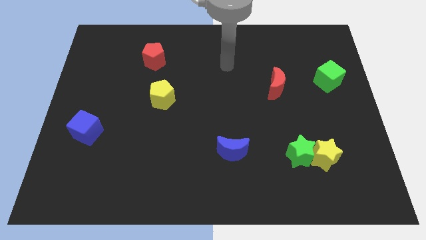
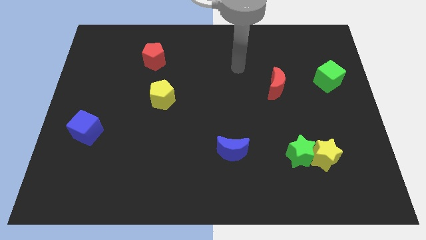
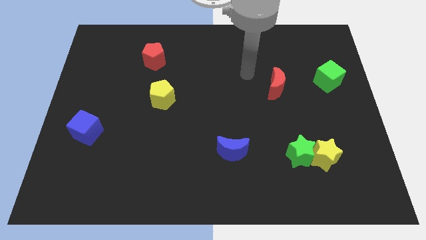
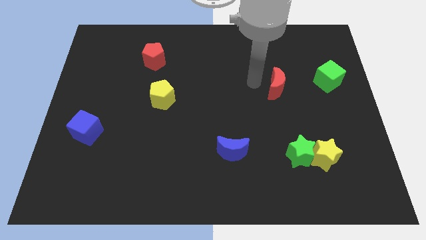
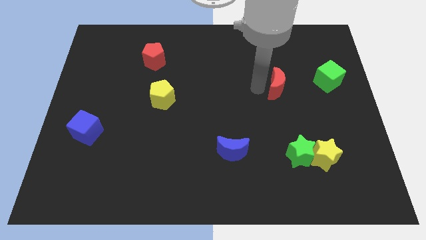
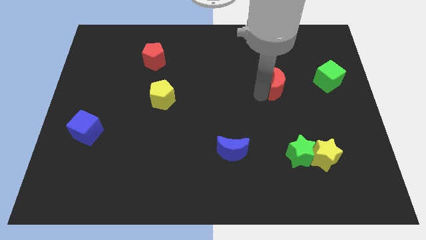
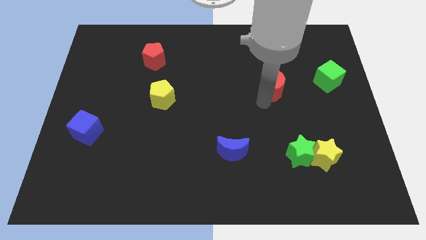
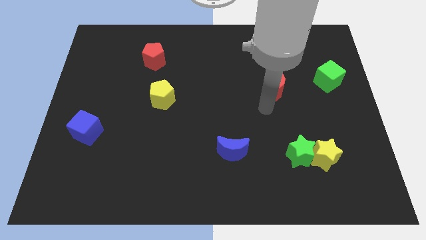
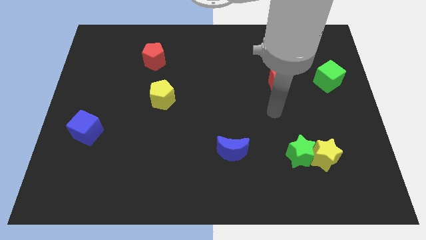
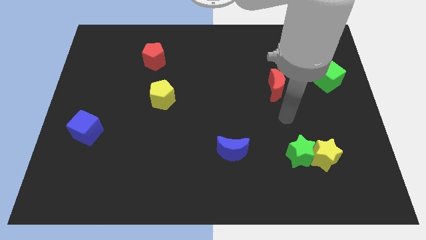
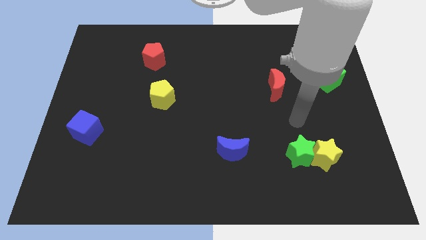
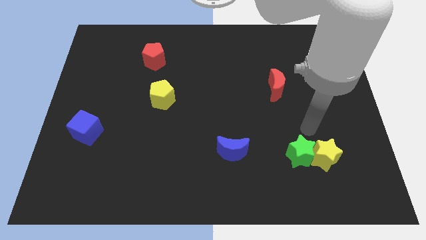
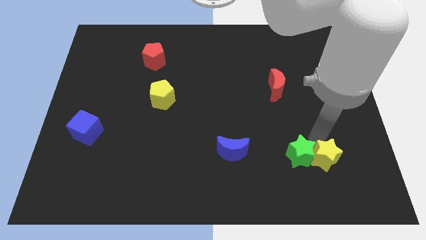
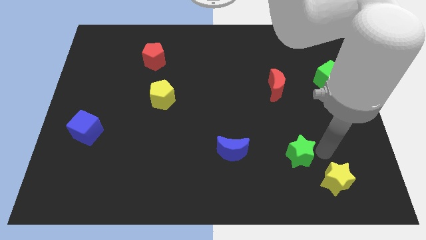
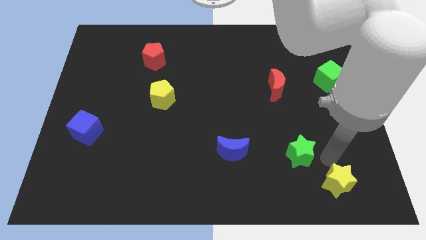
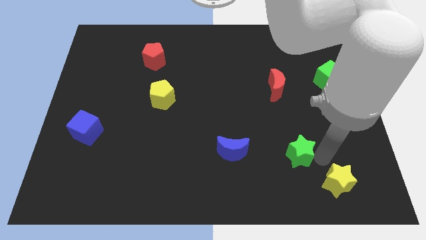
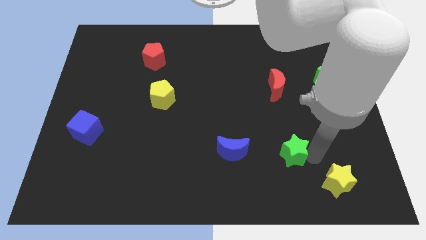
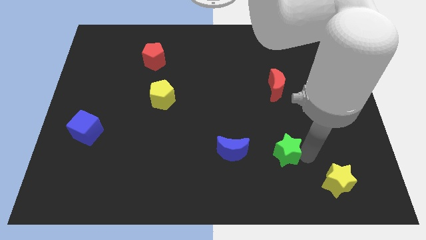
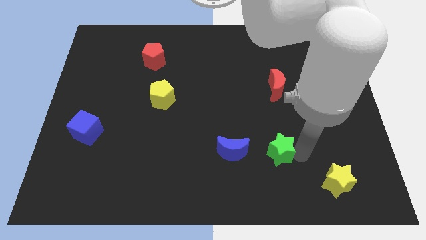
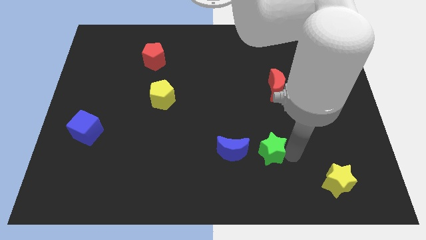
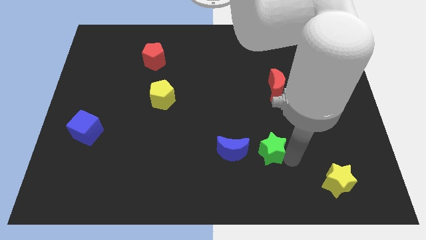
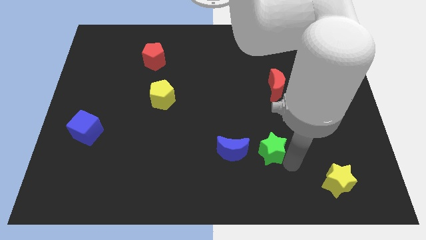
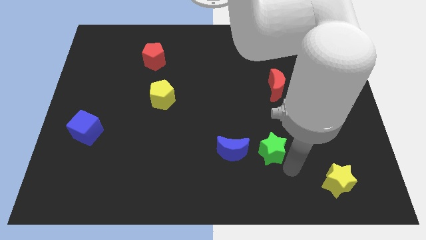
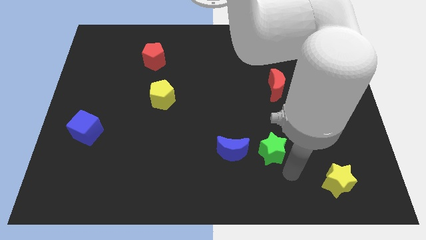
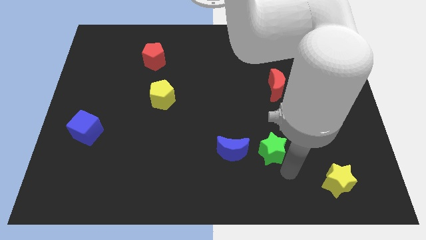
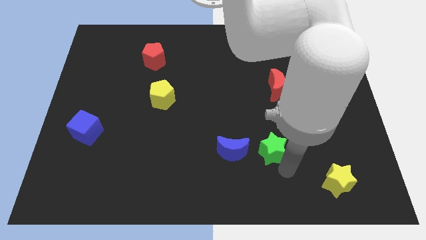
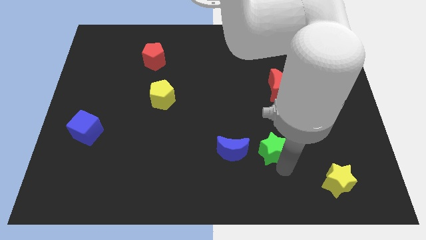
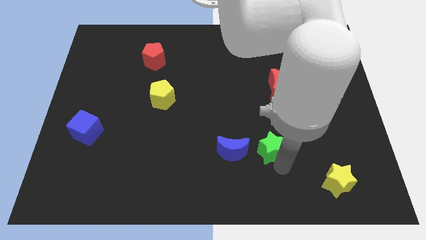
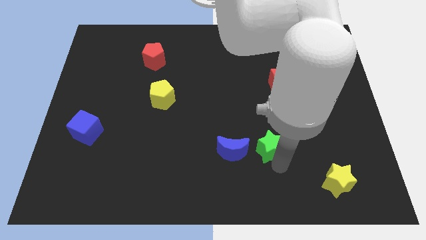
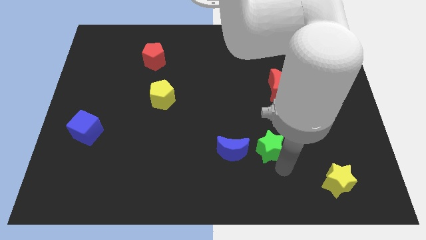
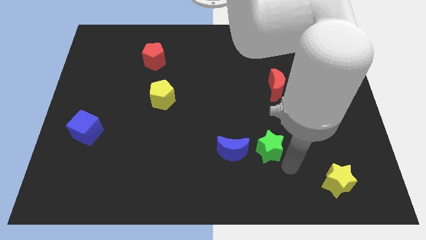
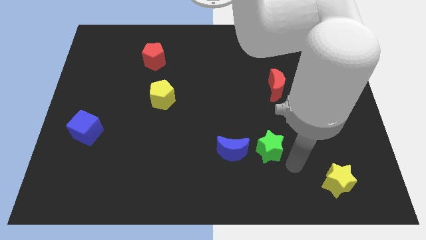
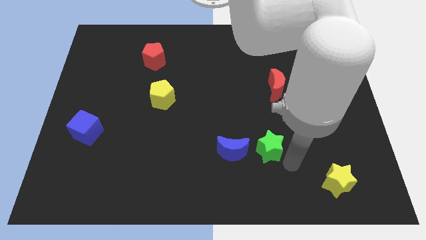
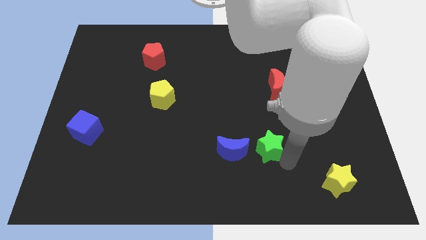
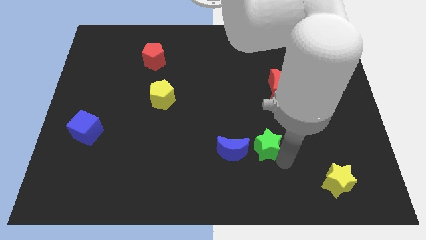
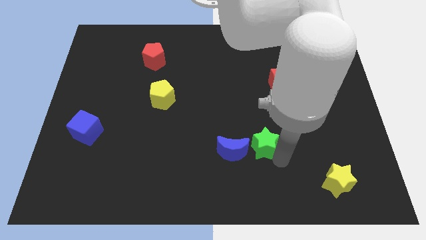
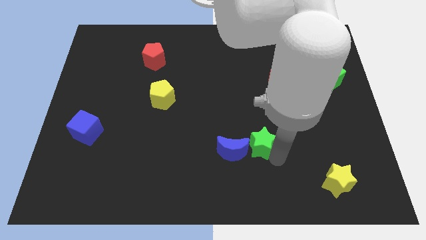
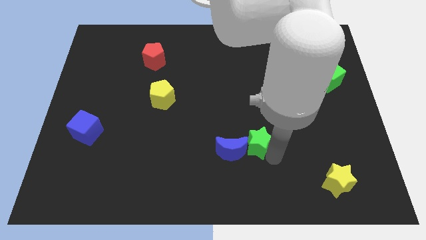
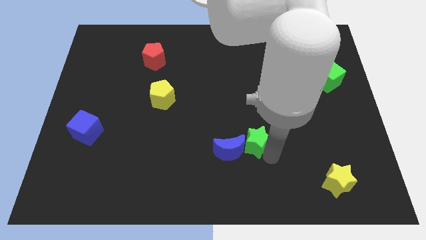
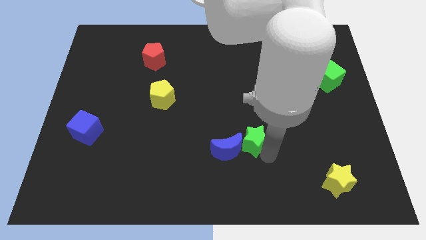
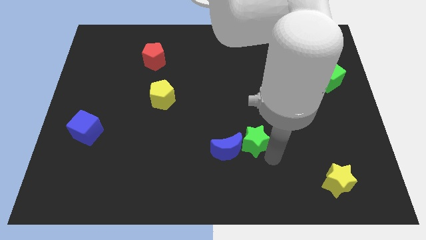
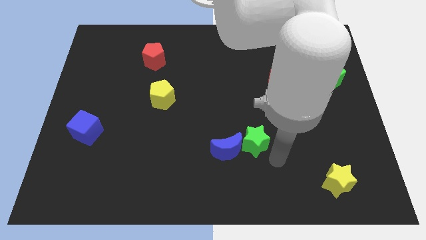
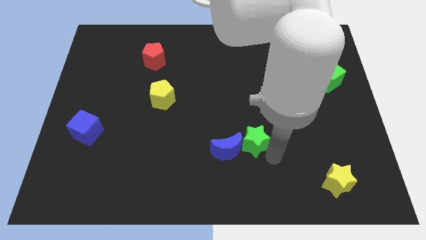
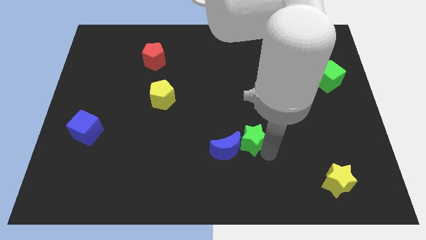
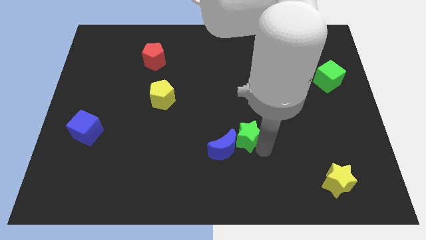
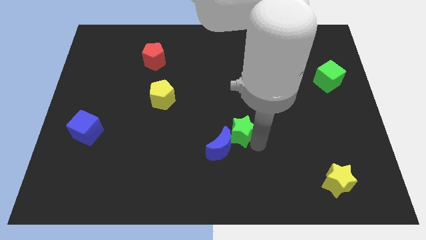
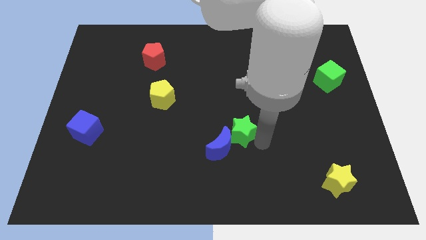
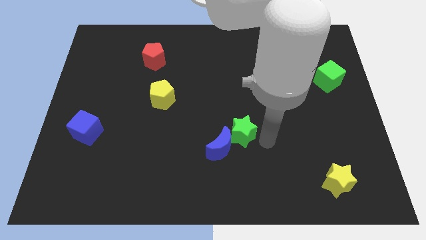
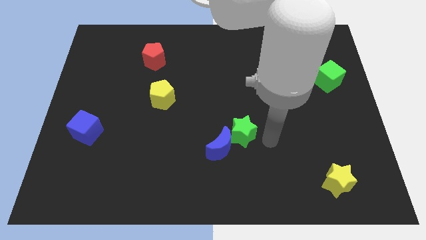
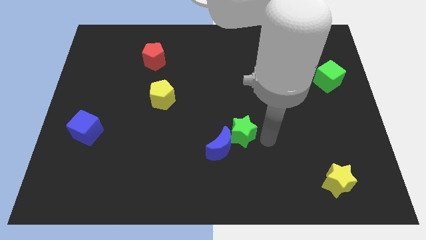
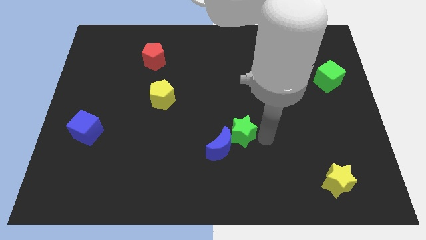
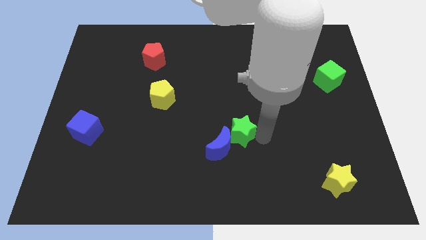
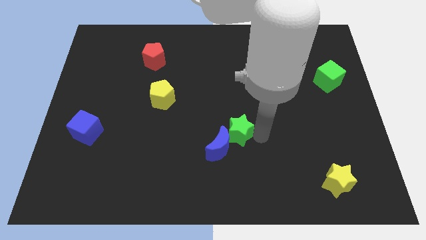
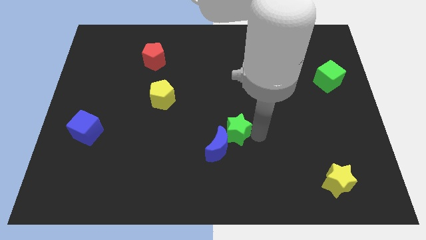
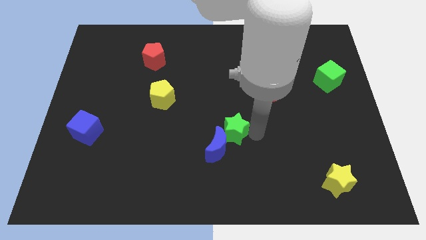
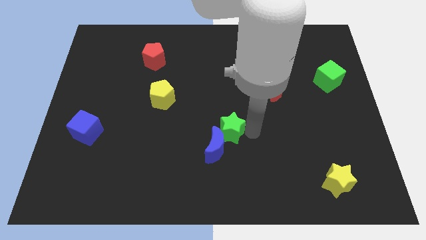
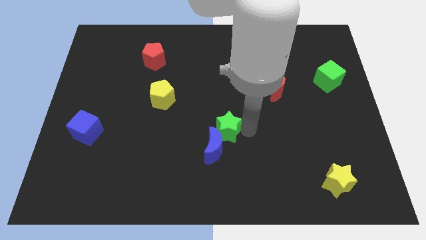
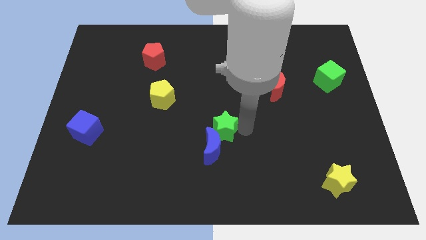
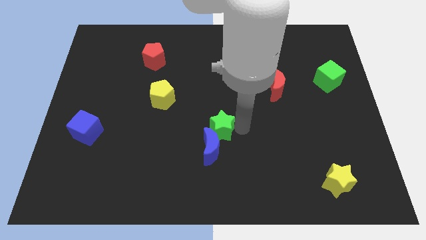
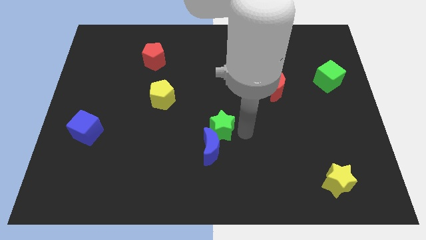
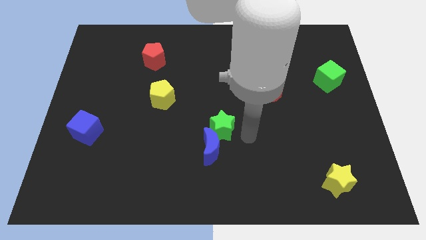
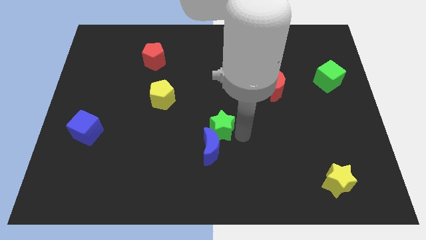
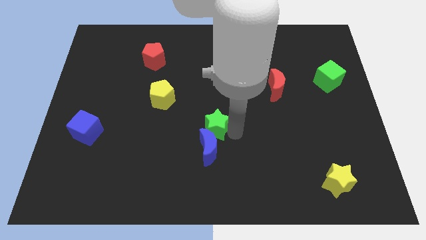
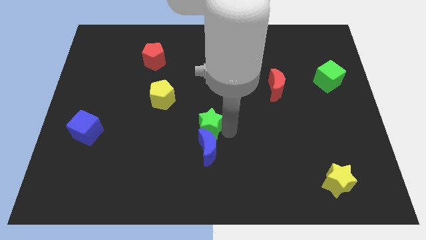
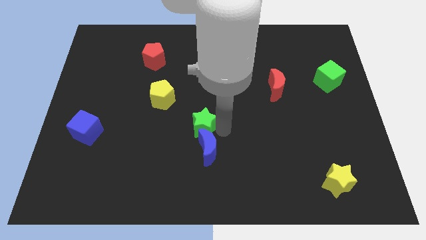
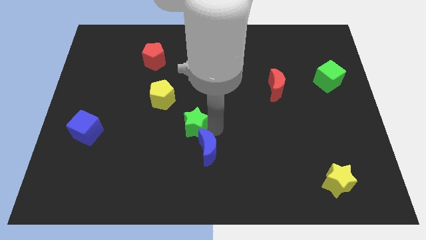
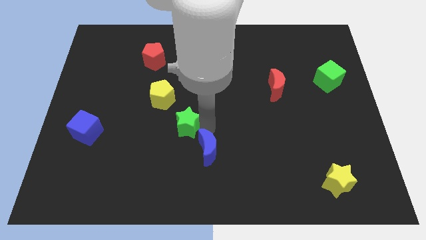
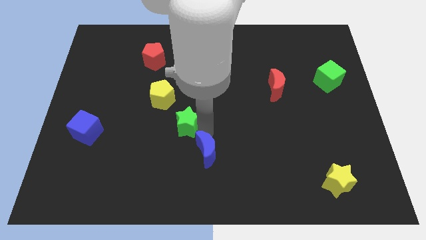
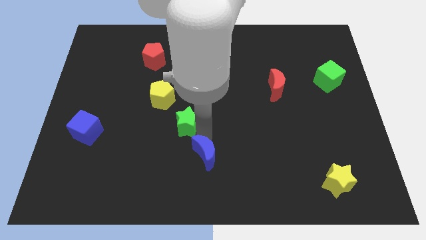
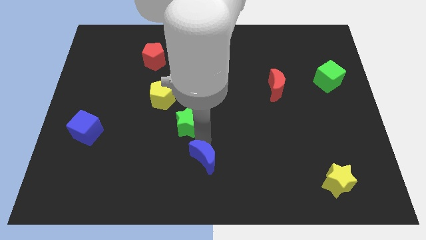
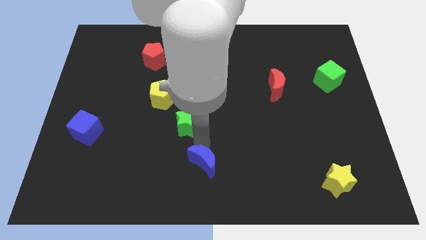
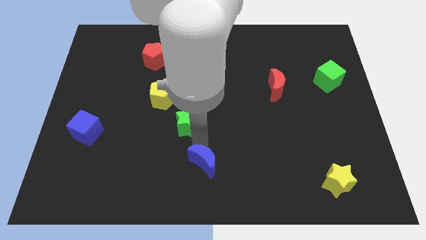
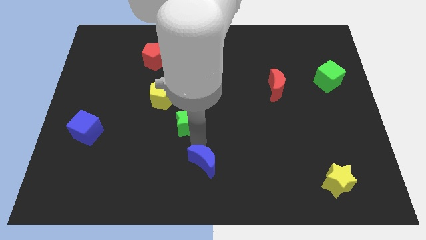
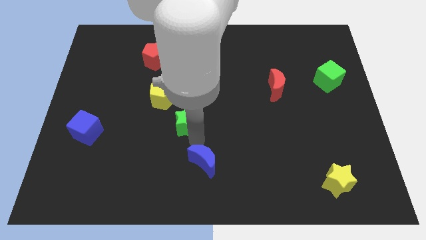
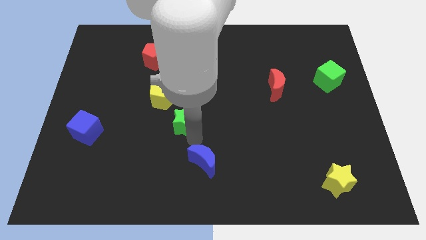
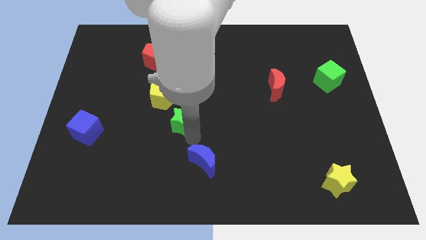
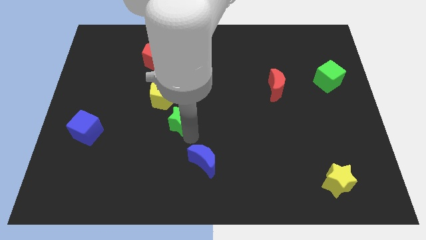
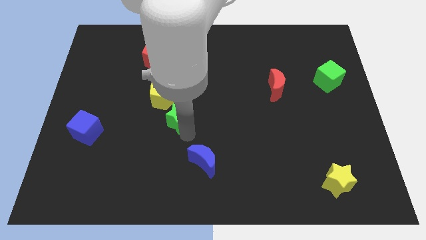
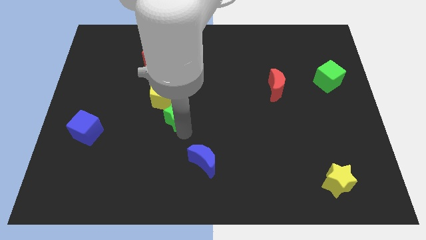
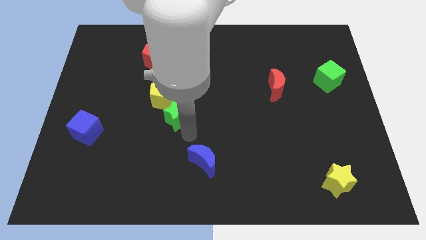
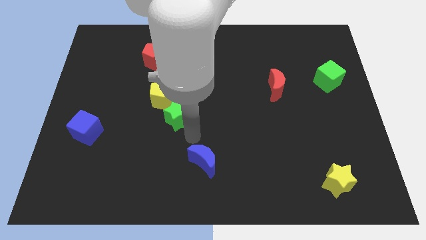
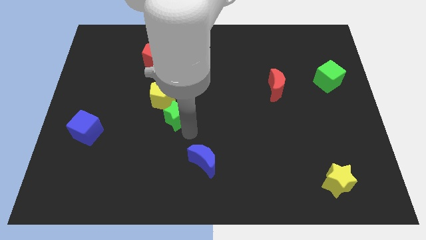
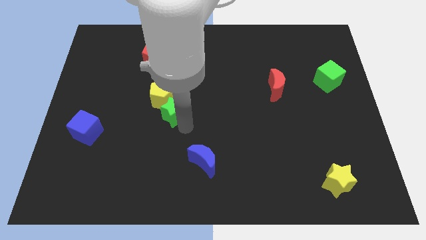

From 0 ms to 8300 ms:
move the green star to the yellow pentagon
